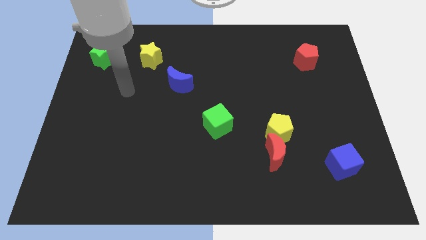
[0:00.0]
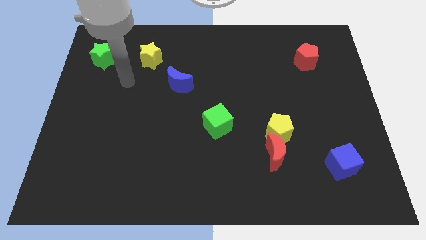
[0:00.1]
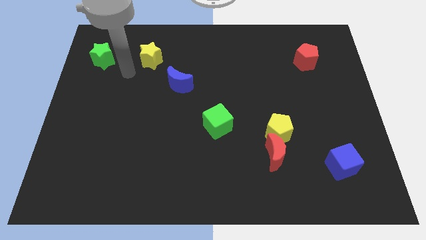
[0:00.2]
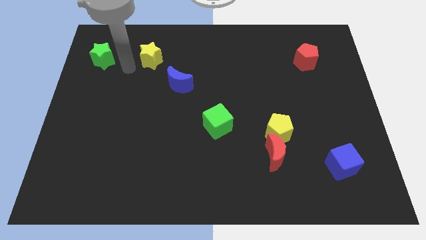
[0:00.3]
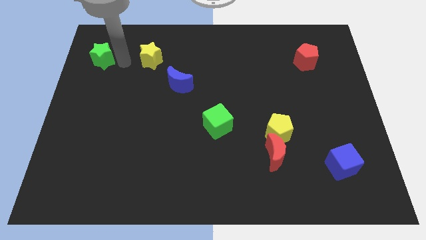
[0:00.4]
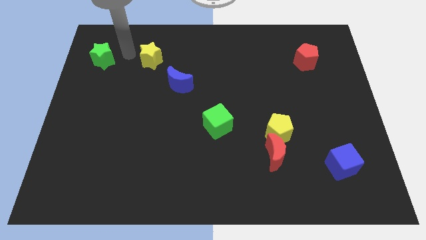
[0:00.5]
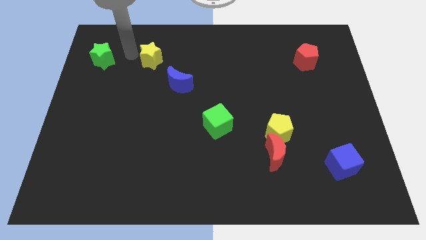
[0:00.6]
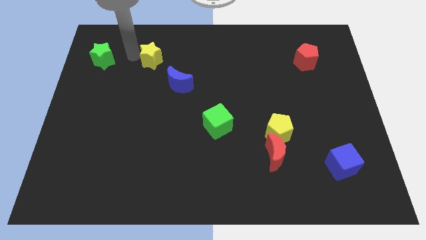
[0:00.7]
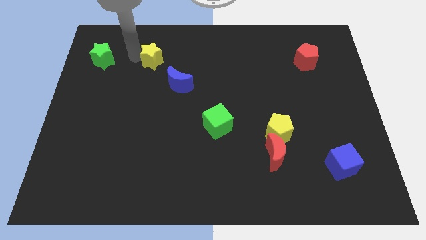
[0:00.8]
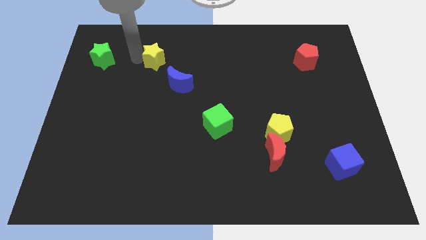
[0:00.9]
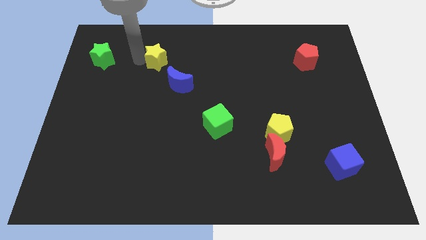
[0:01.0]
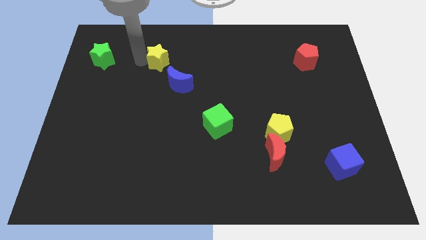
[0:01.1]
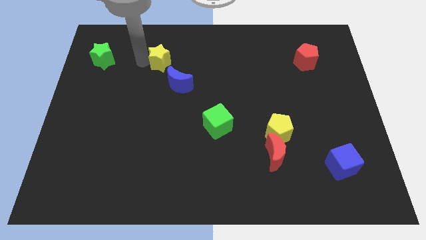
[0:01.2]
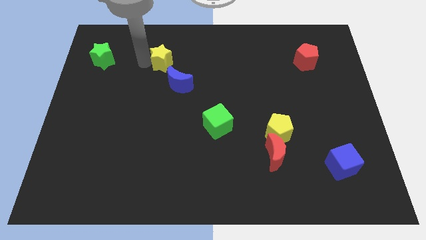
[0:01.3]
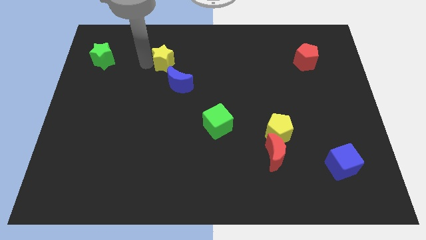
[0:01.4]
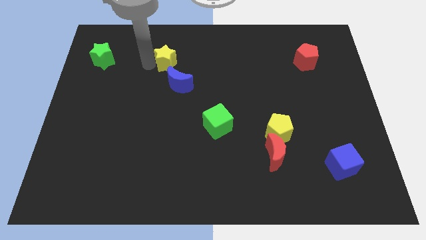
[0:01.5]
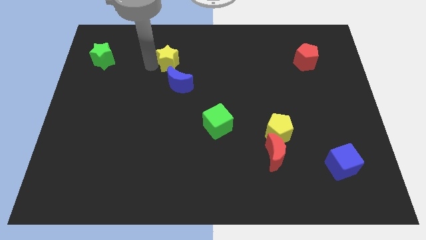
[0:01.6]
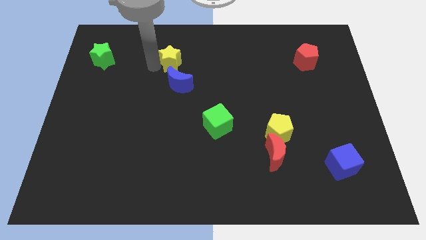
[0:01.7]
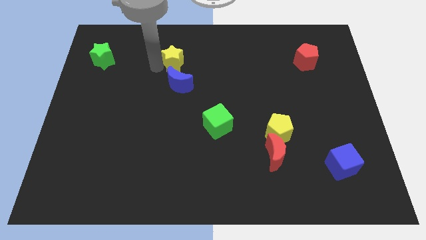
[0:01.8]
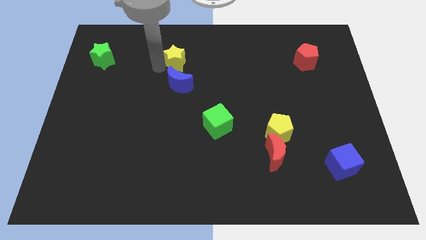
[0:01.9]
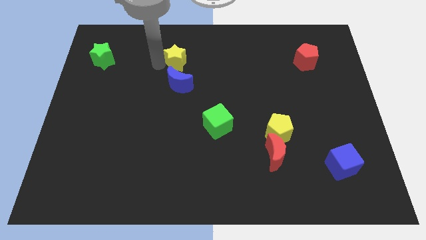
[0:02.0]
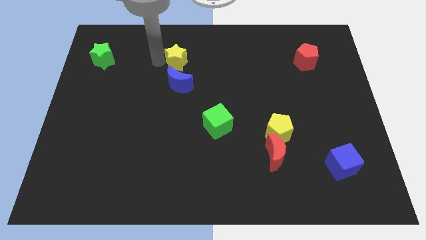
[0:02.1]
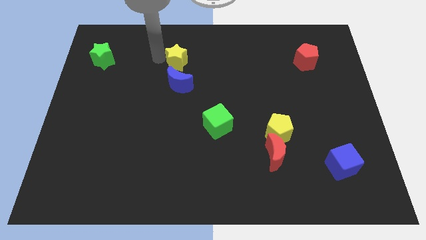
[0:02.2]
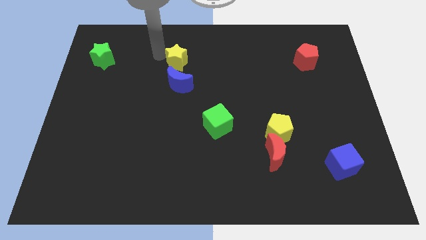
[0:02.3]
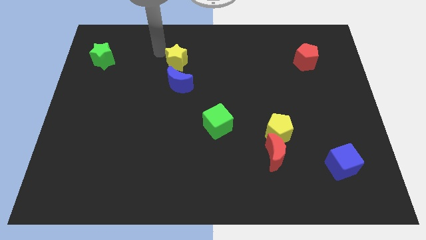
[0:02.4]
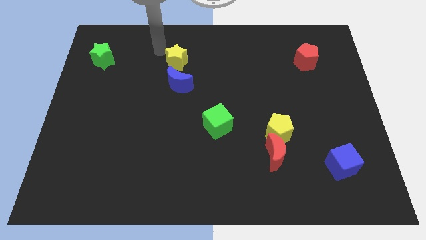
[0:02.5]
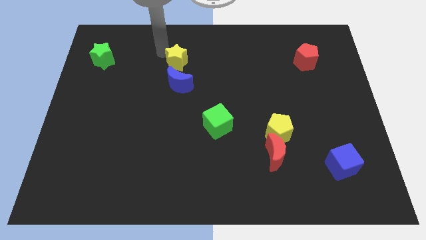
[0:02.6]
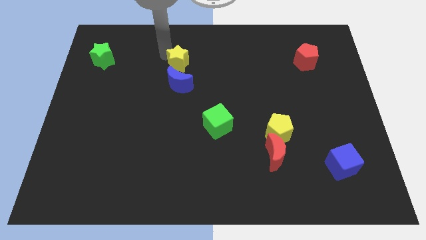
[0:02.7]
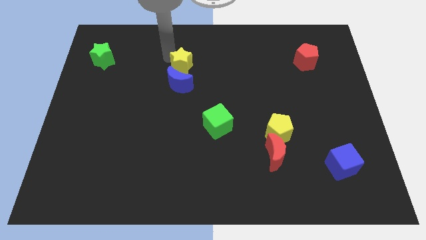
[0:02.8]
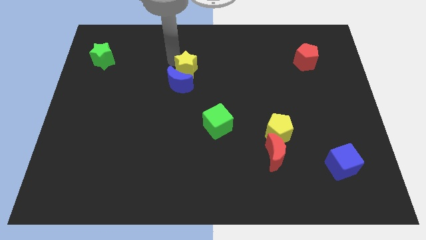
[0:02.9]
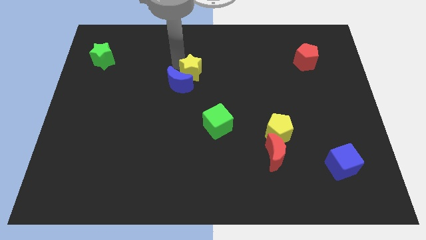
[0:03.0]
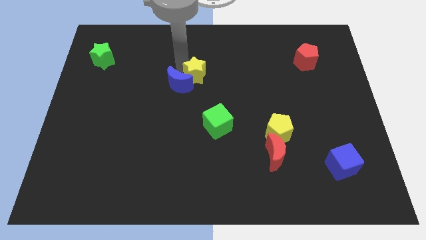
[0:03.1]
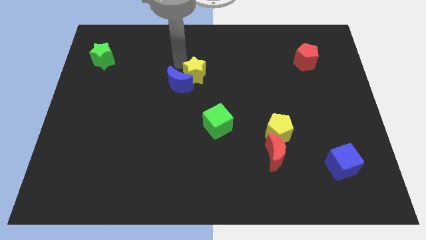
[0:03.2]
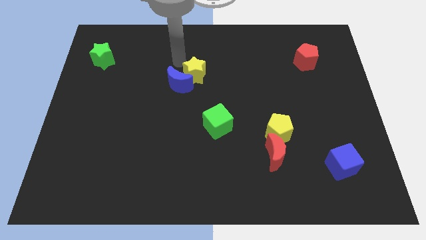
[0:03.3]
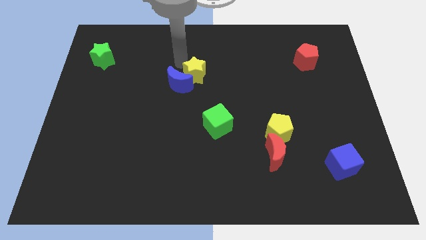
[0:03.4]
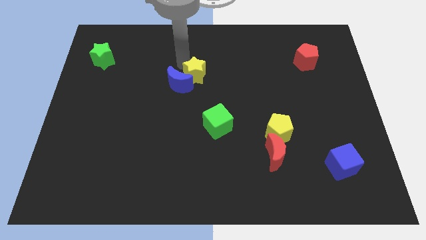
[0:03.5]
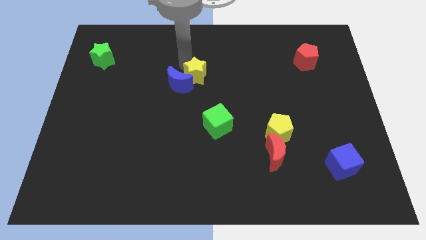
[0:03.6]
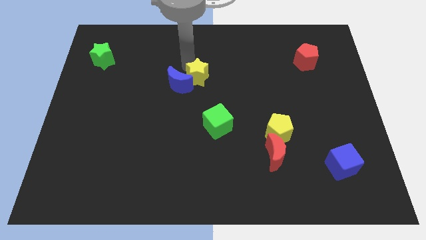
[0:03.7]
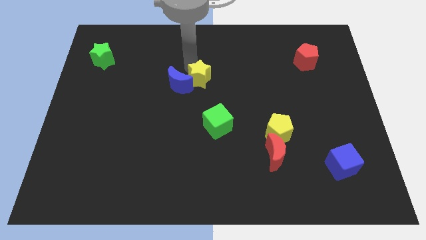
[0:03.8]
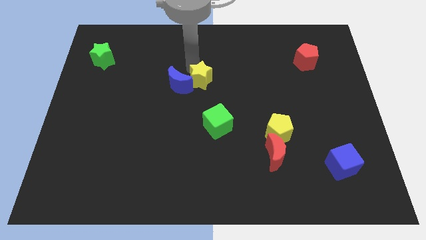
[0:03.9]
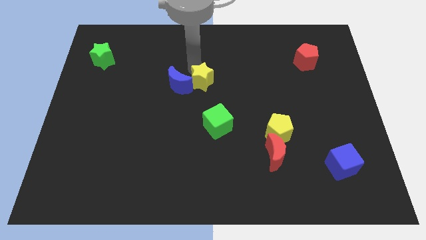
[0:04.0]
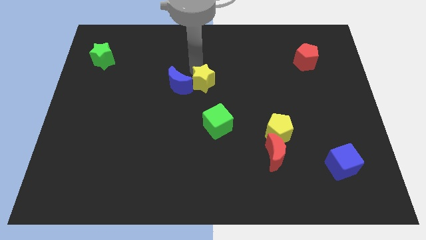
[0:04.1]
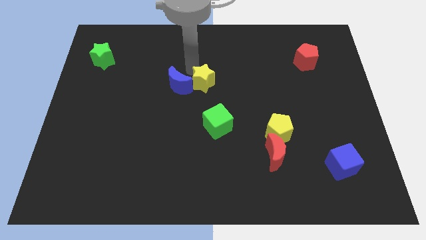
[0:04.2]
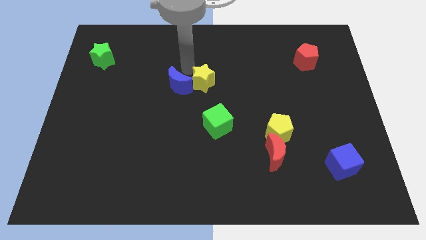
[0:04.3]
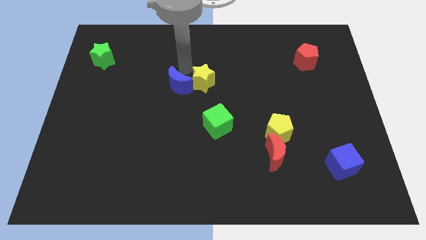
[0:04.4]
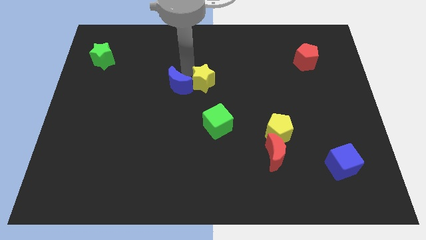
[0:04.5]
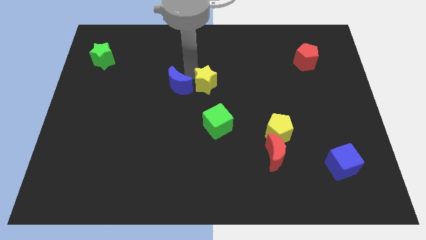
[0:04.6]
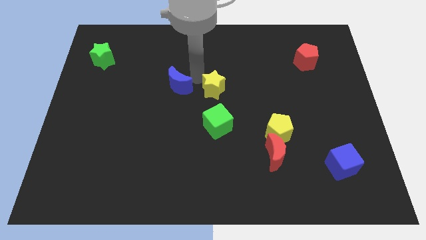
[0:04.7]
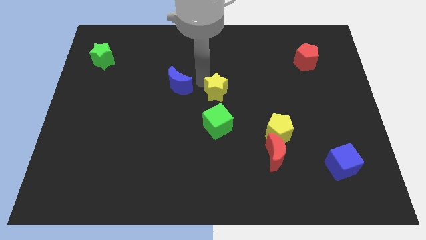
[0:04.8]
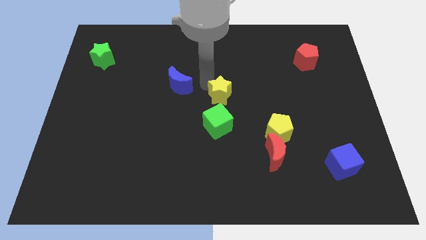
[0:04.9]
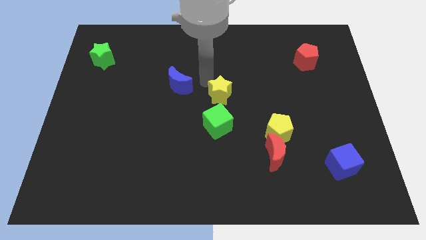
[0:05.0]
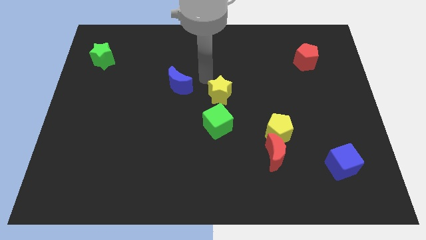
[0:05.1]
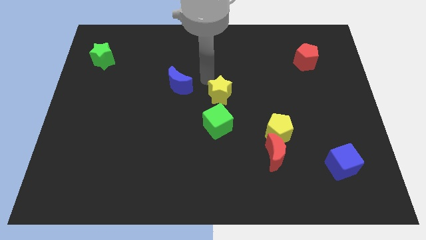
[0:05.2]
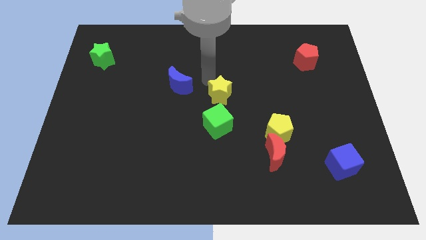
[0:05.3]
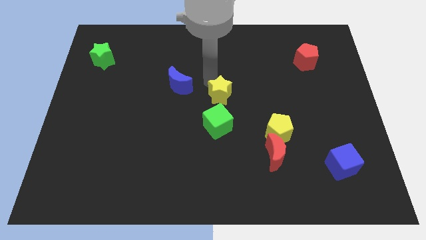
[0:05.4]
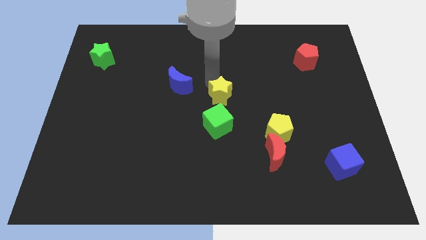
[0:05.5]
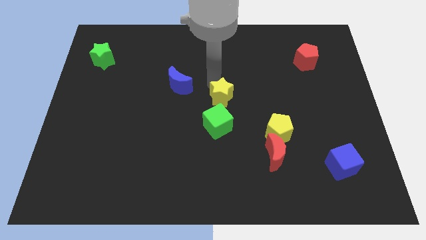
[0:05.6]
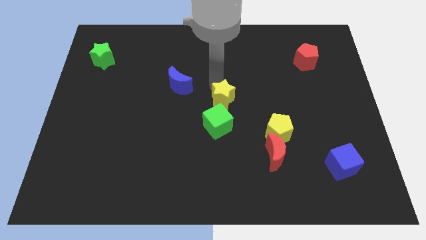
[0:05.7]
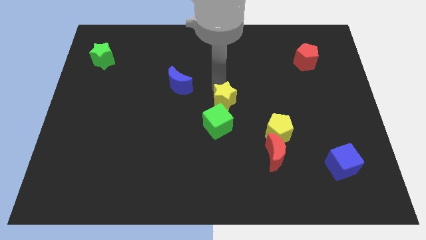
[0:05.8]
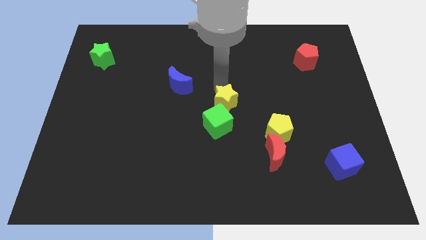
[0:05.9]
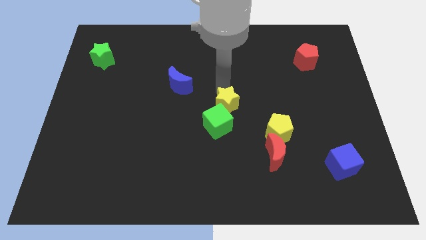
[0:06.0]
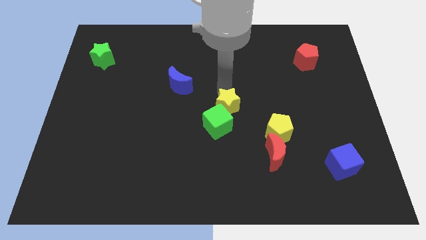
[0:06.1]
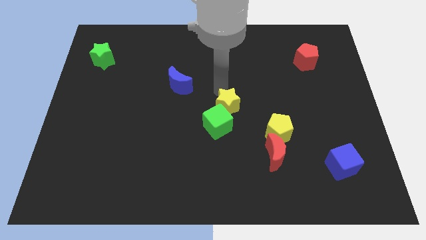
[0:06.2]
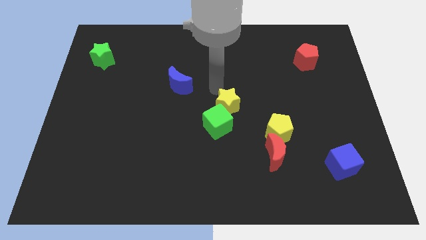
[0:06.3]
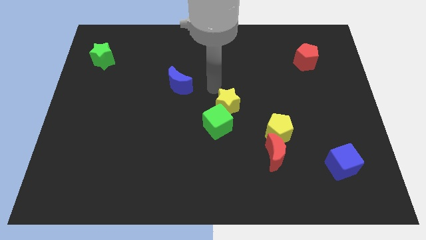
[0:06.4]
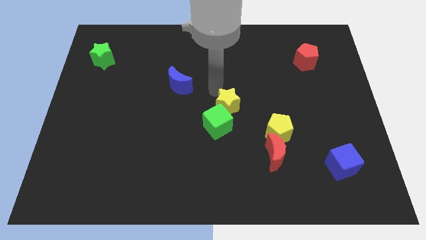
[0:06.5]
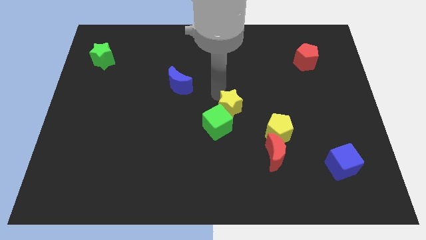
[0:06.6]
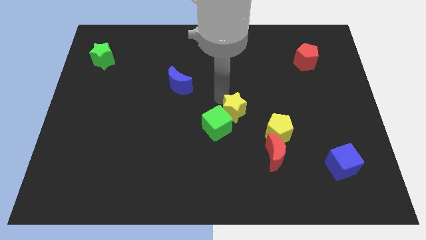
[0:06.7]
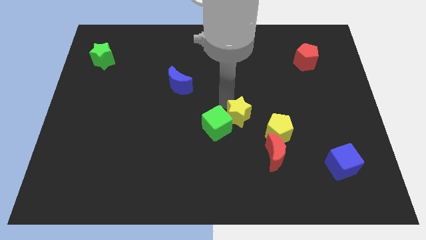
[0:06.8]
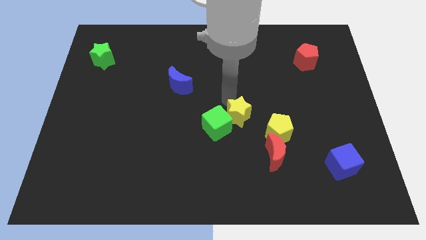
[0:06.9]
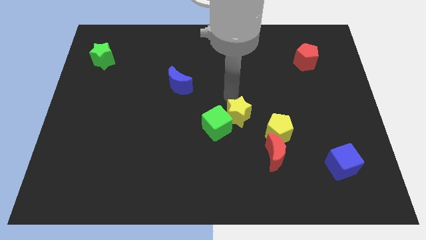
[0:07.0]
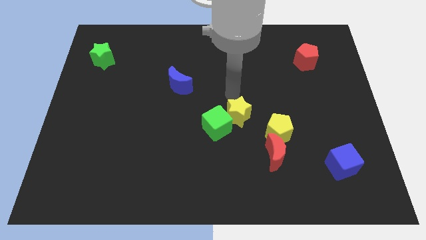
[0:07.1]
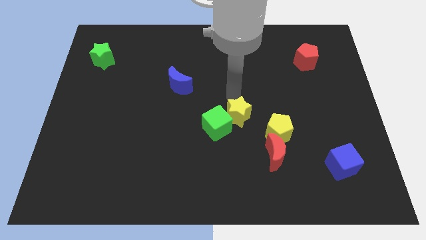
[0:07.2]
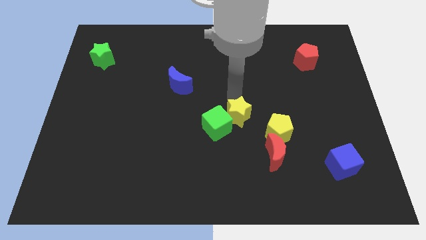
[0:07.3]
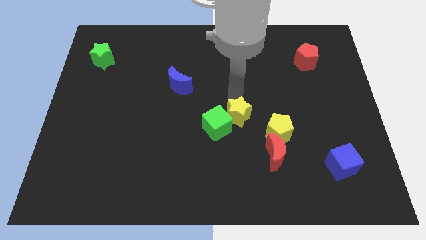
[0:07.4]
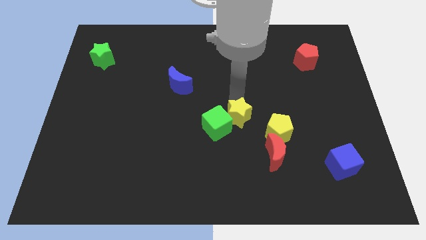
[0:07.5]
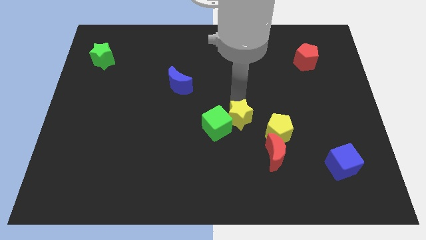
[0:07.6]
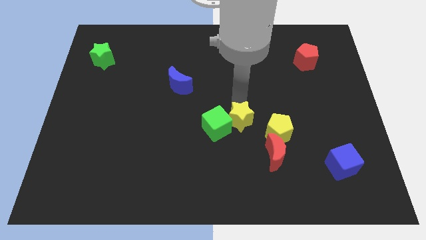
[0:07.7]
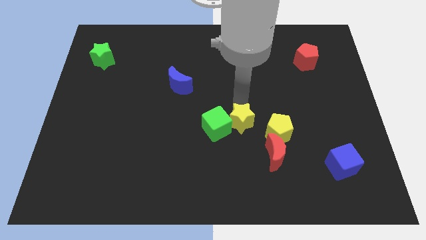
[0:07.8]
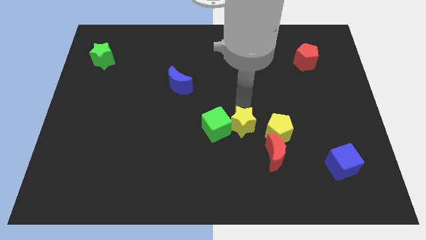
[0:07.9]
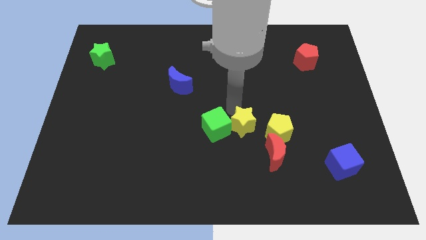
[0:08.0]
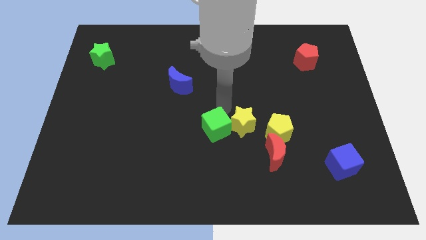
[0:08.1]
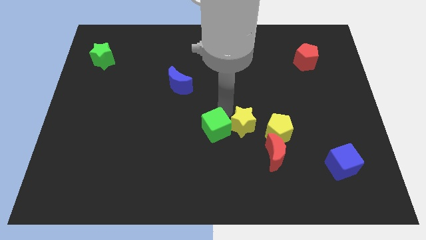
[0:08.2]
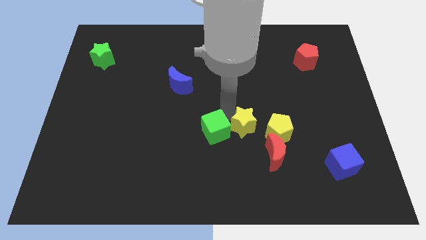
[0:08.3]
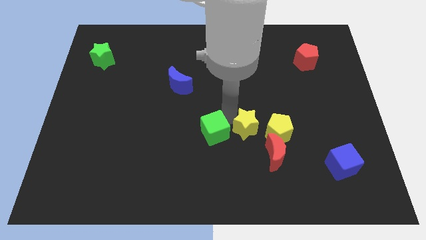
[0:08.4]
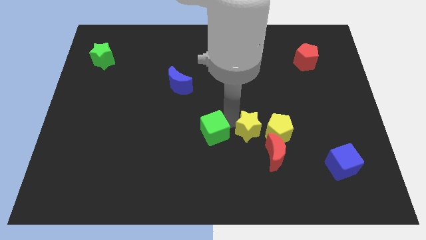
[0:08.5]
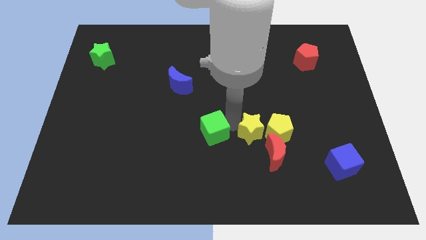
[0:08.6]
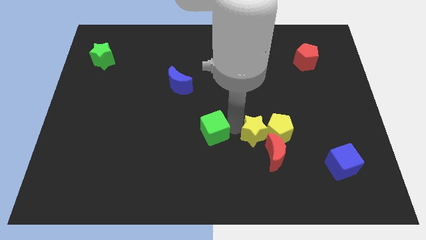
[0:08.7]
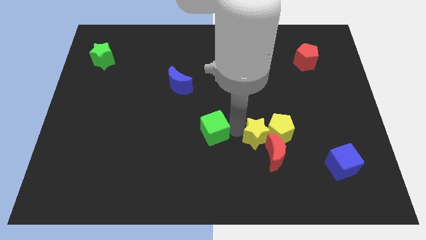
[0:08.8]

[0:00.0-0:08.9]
move the yellow star towards the red moon
